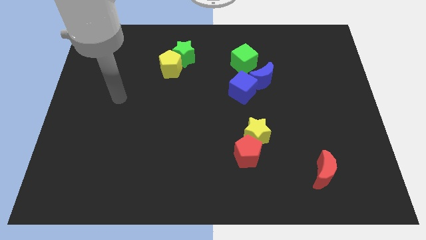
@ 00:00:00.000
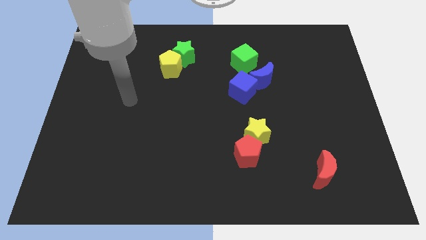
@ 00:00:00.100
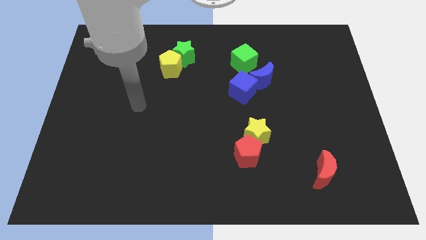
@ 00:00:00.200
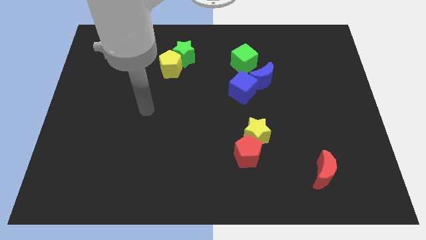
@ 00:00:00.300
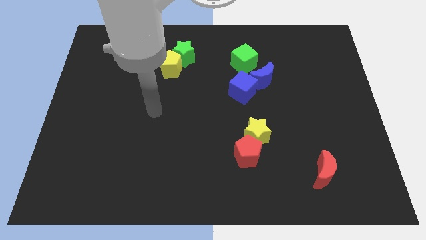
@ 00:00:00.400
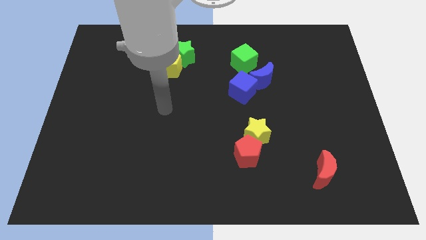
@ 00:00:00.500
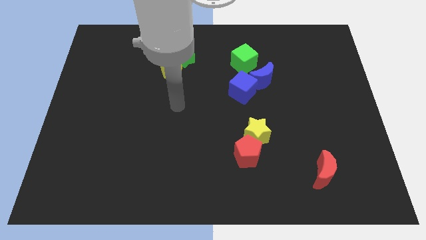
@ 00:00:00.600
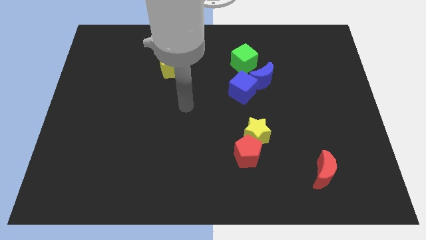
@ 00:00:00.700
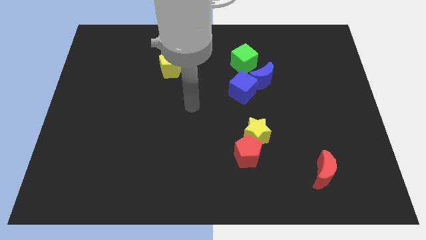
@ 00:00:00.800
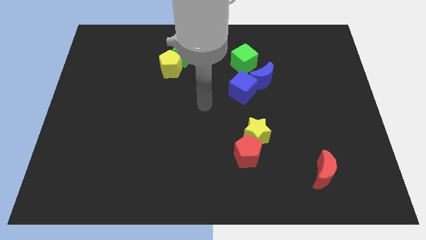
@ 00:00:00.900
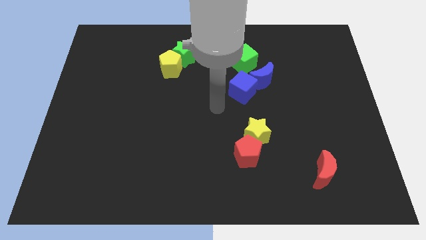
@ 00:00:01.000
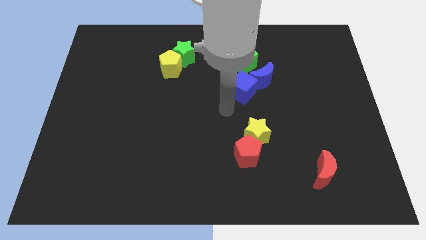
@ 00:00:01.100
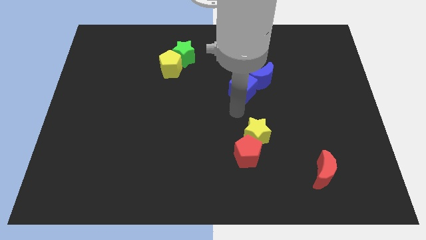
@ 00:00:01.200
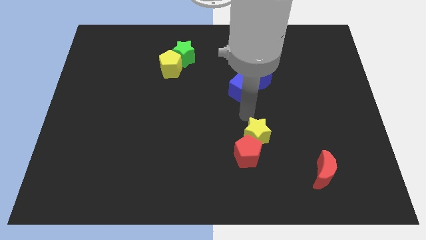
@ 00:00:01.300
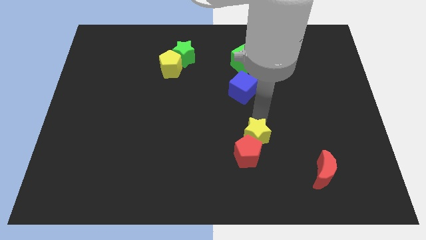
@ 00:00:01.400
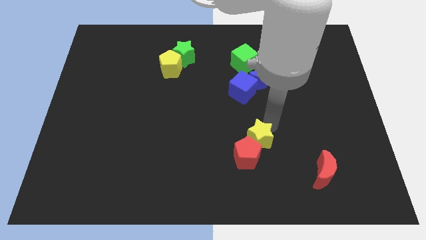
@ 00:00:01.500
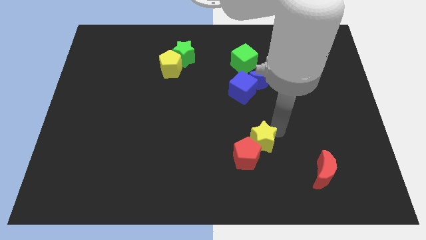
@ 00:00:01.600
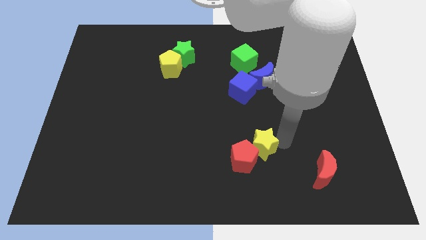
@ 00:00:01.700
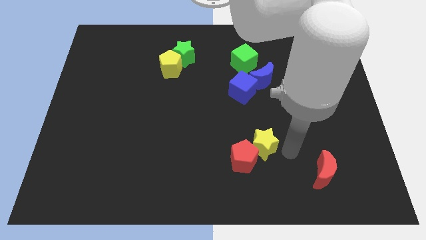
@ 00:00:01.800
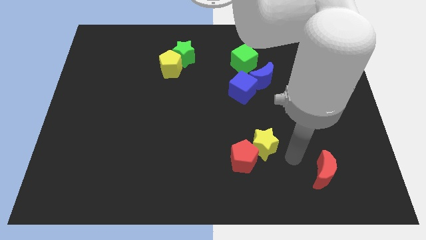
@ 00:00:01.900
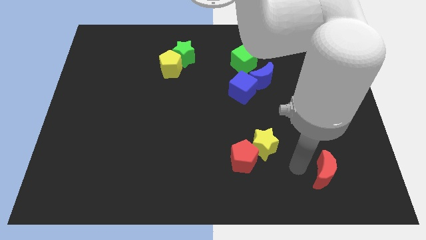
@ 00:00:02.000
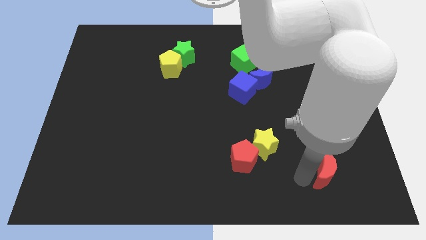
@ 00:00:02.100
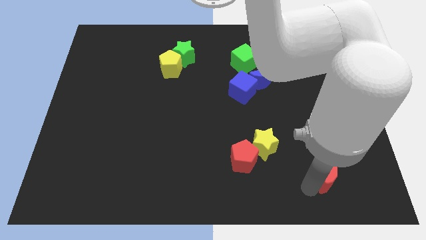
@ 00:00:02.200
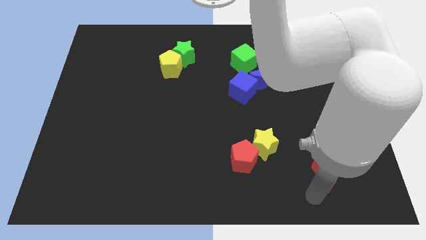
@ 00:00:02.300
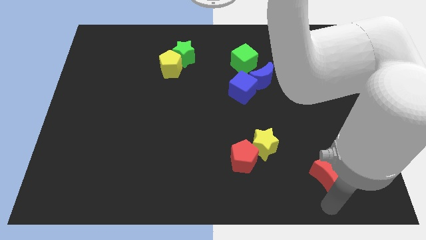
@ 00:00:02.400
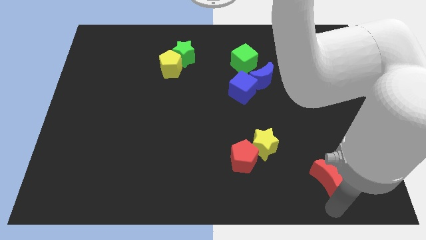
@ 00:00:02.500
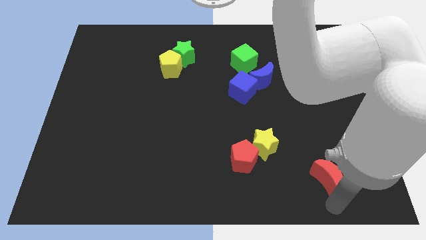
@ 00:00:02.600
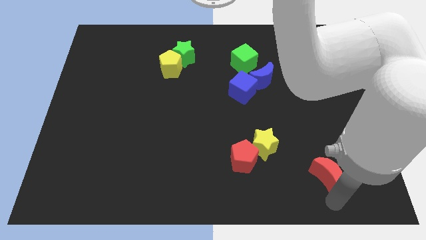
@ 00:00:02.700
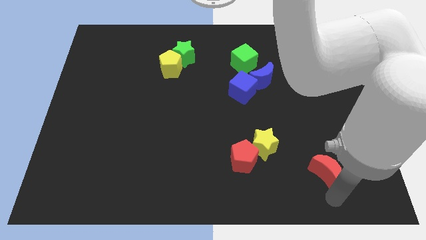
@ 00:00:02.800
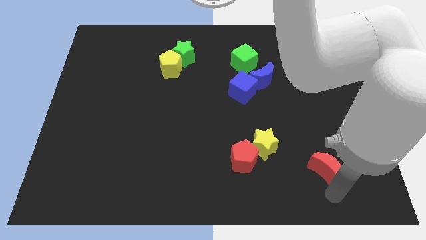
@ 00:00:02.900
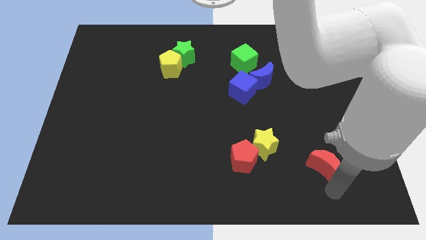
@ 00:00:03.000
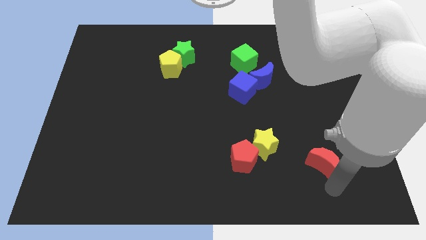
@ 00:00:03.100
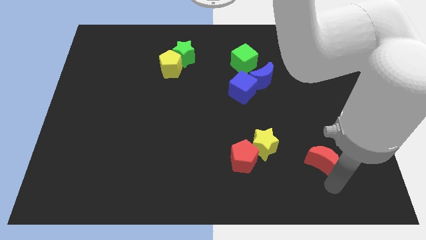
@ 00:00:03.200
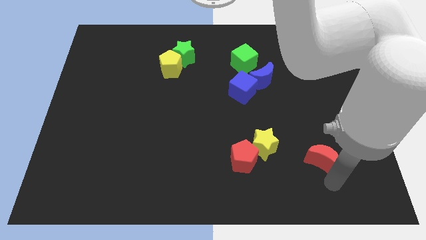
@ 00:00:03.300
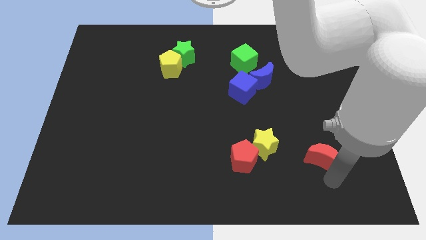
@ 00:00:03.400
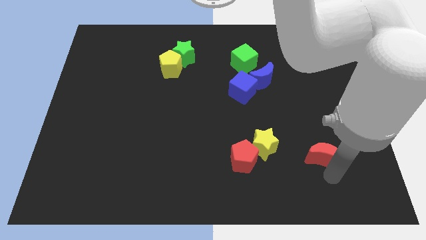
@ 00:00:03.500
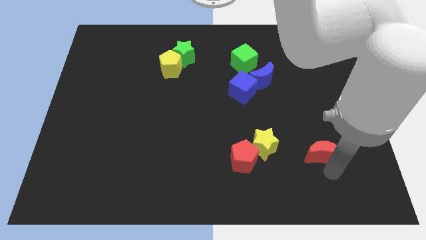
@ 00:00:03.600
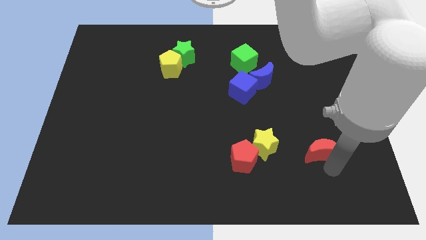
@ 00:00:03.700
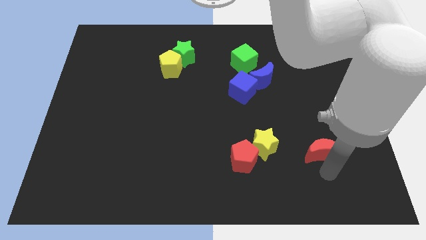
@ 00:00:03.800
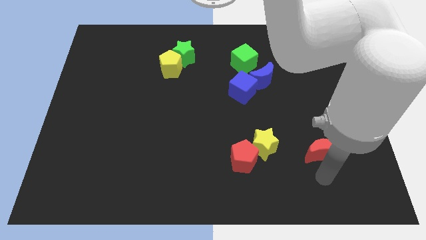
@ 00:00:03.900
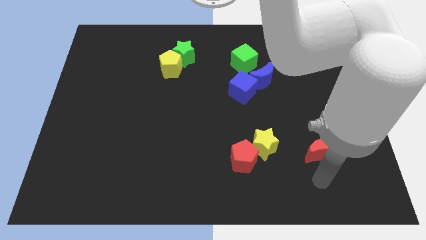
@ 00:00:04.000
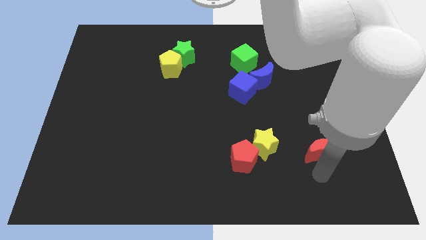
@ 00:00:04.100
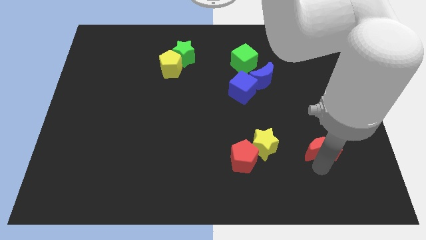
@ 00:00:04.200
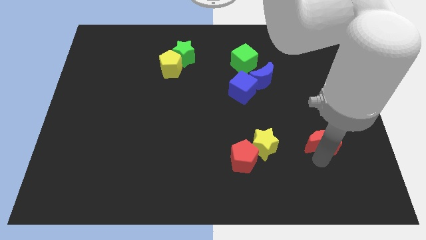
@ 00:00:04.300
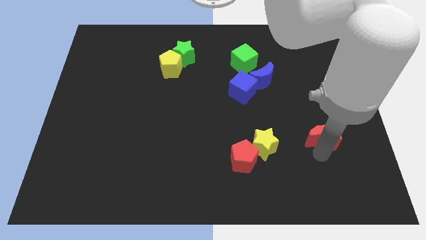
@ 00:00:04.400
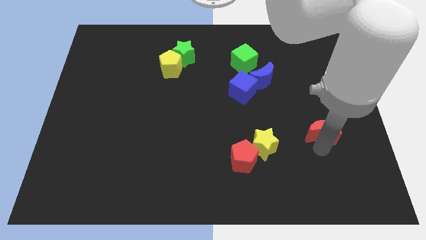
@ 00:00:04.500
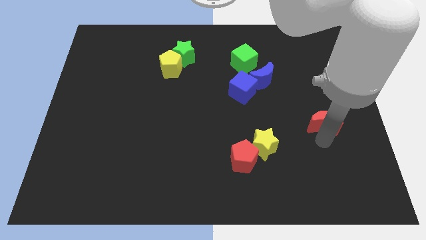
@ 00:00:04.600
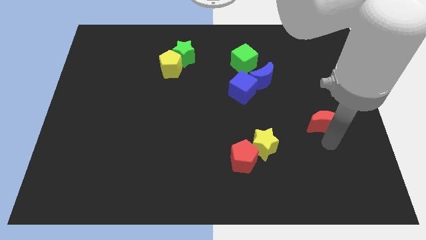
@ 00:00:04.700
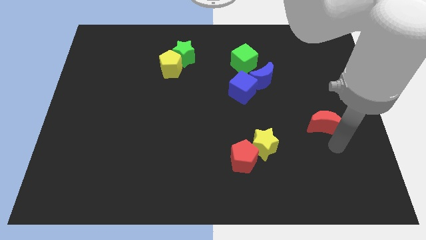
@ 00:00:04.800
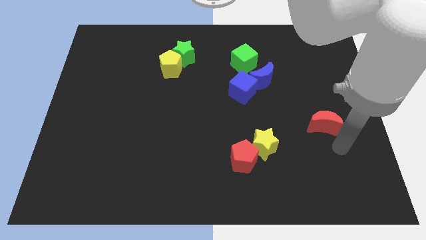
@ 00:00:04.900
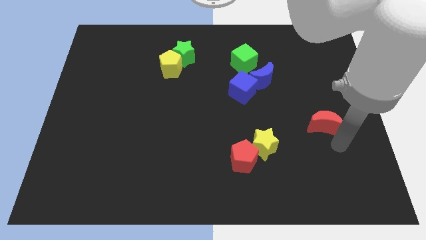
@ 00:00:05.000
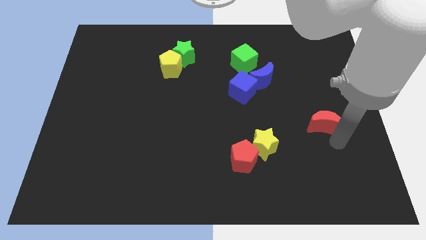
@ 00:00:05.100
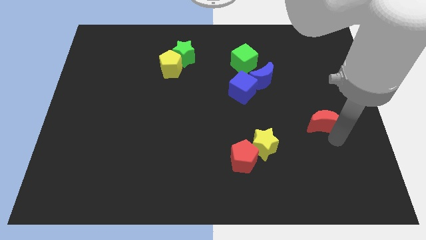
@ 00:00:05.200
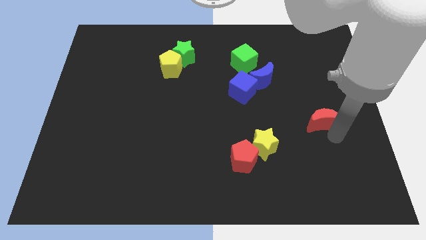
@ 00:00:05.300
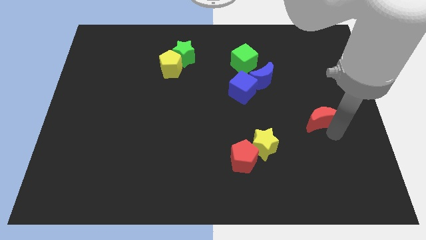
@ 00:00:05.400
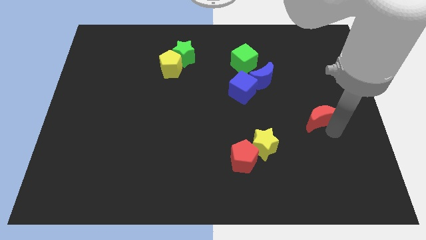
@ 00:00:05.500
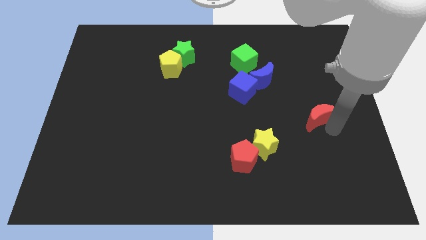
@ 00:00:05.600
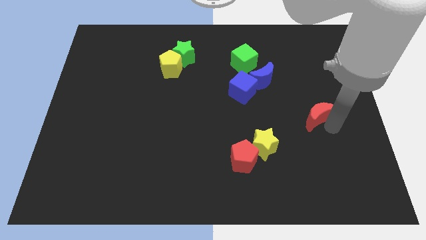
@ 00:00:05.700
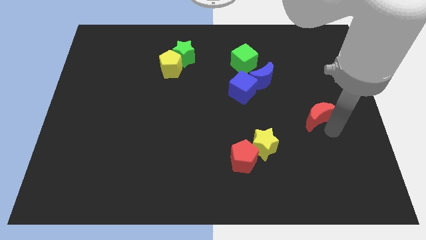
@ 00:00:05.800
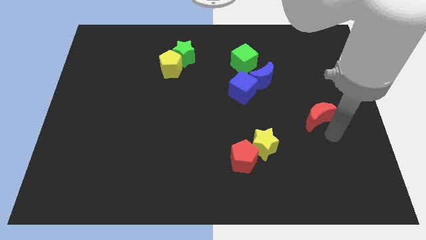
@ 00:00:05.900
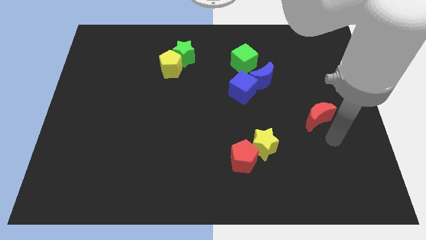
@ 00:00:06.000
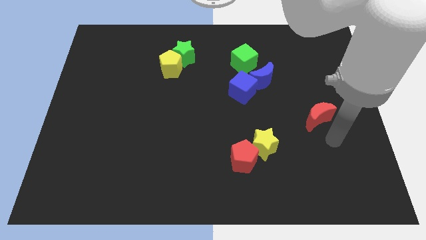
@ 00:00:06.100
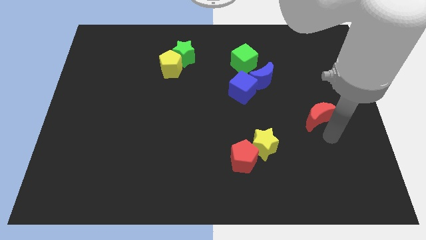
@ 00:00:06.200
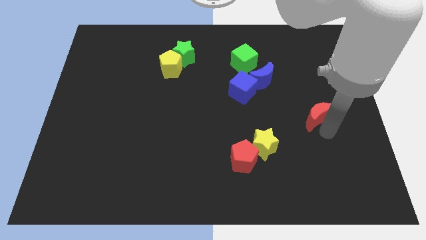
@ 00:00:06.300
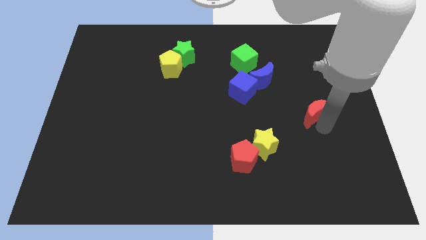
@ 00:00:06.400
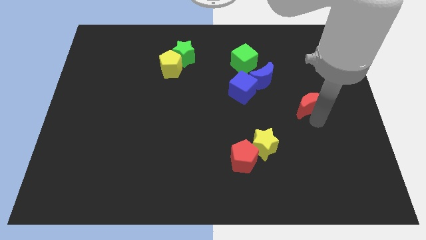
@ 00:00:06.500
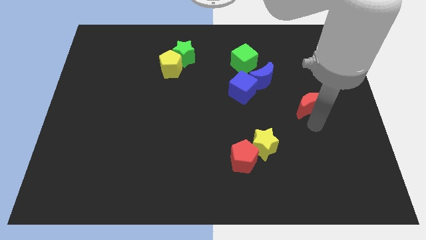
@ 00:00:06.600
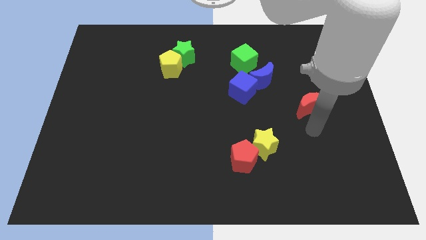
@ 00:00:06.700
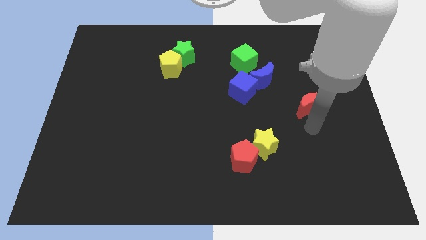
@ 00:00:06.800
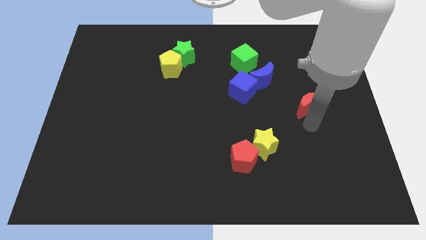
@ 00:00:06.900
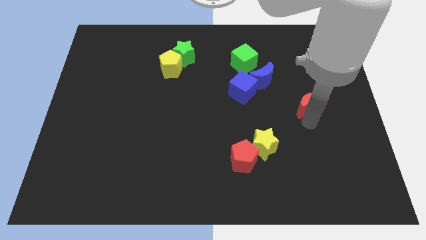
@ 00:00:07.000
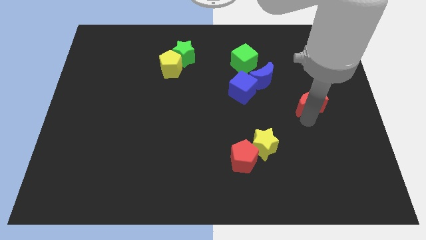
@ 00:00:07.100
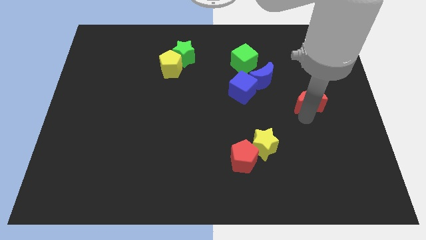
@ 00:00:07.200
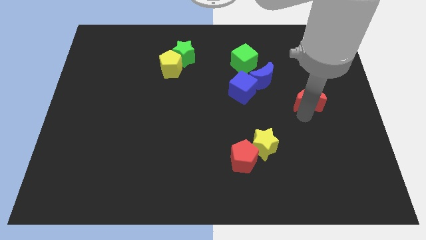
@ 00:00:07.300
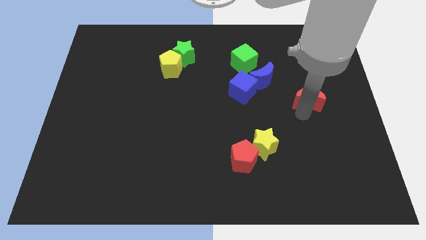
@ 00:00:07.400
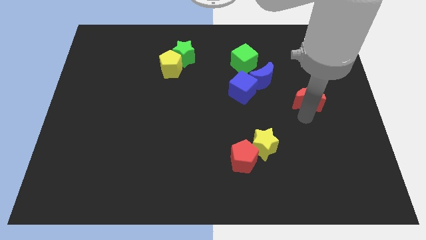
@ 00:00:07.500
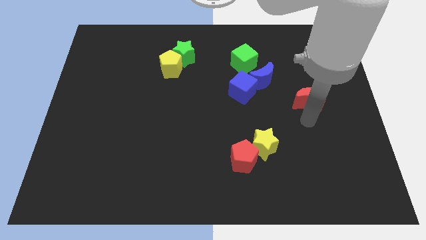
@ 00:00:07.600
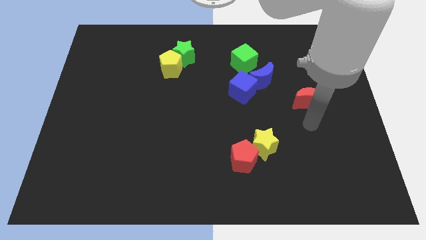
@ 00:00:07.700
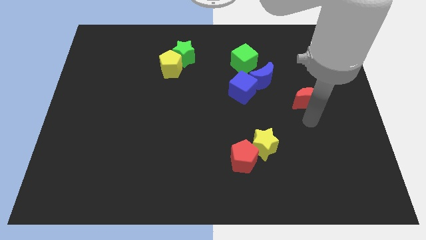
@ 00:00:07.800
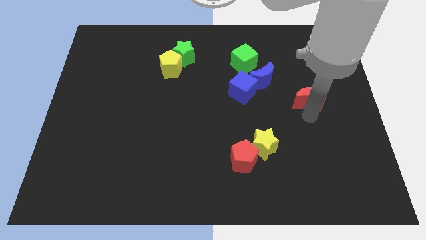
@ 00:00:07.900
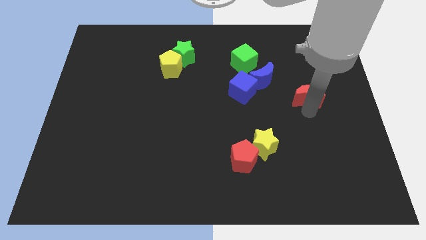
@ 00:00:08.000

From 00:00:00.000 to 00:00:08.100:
slide the red moon up
